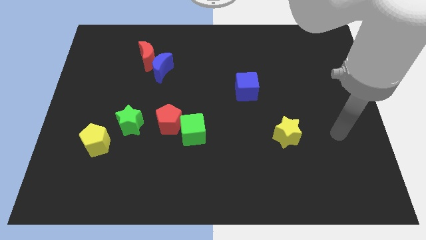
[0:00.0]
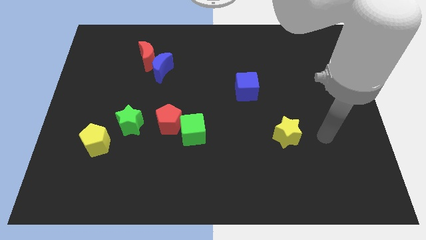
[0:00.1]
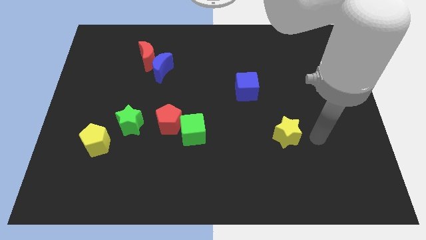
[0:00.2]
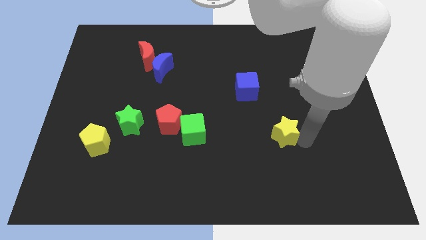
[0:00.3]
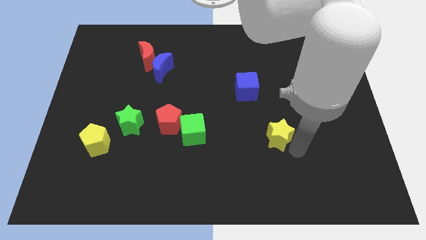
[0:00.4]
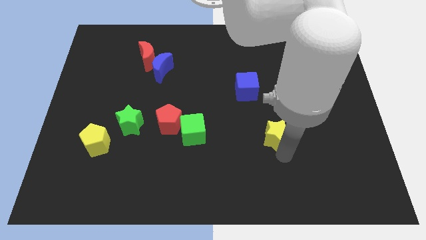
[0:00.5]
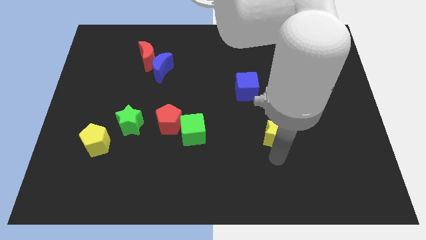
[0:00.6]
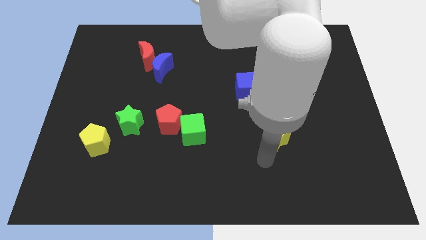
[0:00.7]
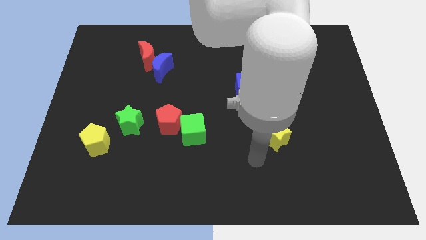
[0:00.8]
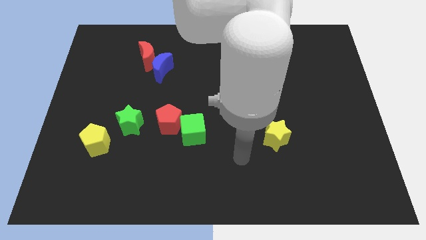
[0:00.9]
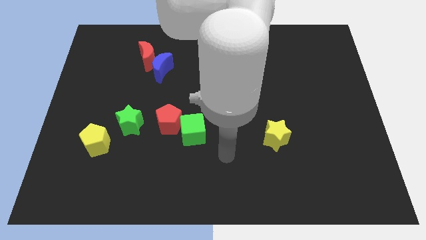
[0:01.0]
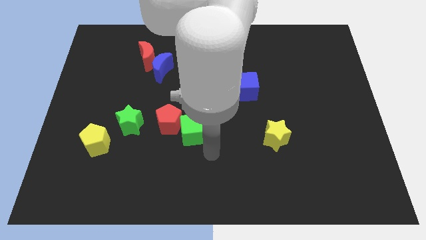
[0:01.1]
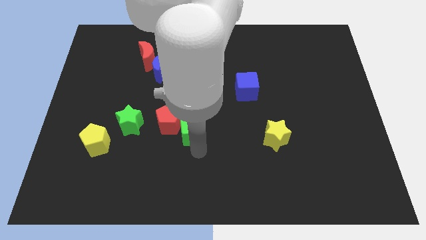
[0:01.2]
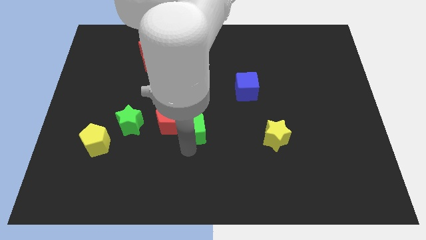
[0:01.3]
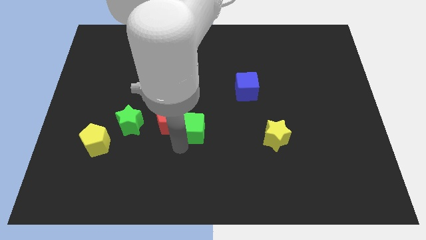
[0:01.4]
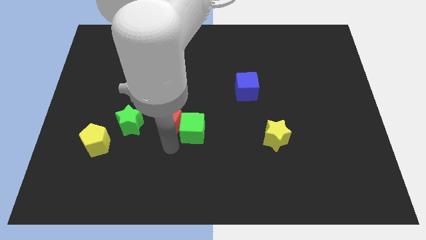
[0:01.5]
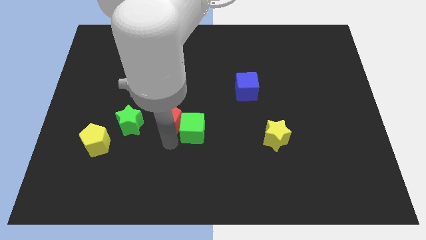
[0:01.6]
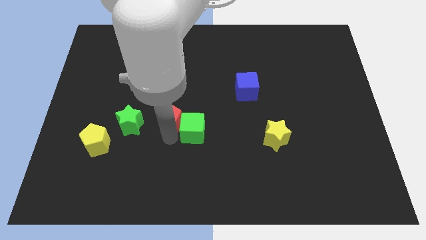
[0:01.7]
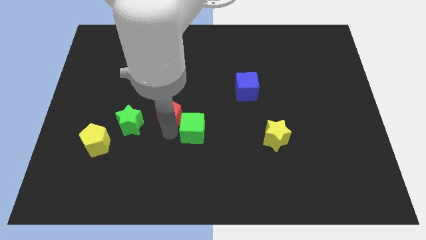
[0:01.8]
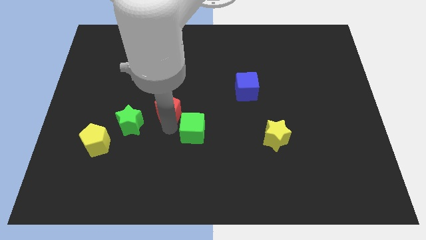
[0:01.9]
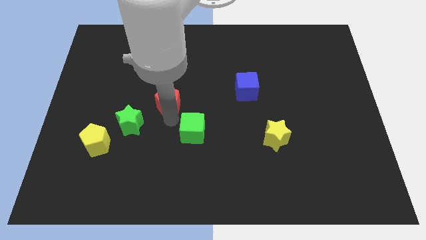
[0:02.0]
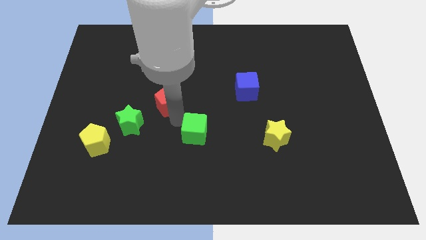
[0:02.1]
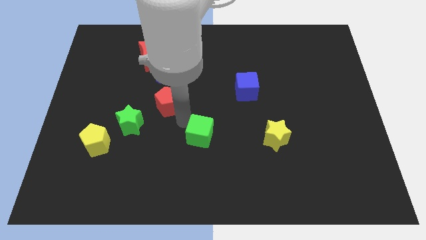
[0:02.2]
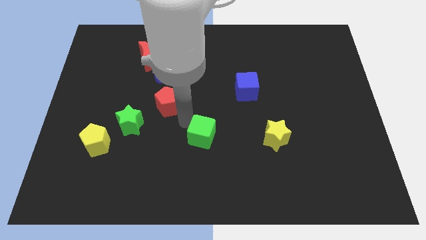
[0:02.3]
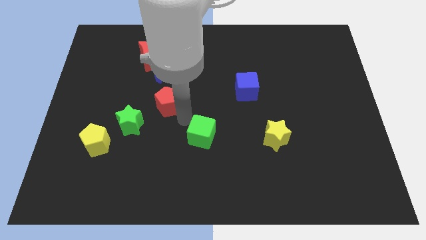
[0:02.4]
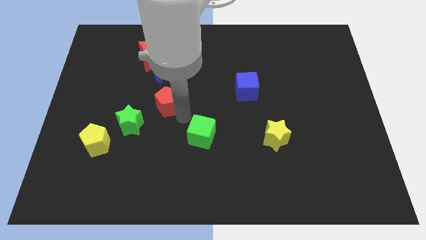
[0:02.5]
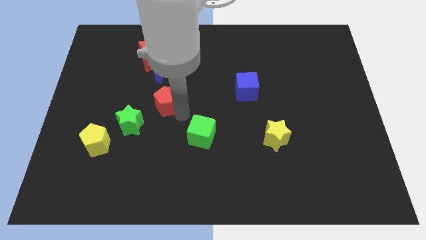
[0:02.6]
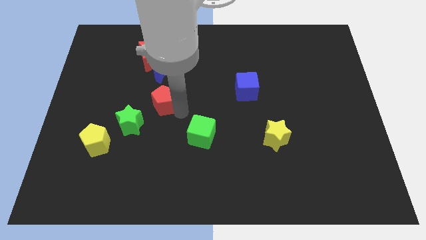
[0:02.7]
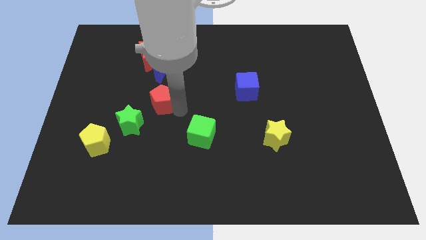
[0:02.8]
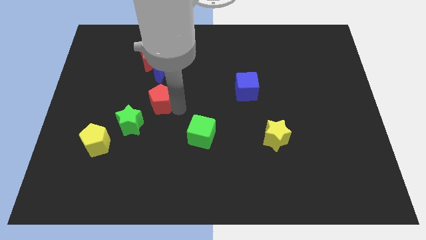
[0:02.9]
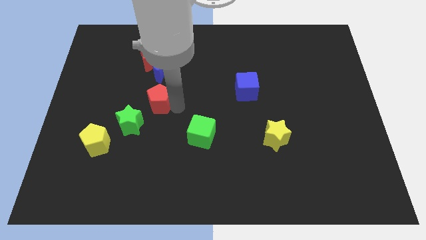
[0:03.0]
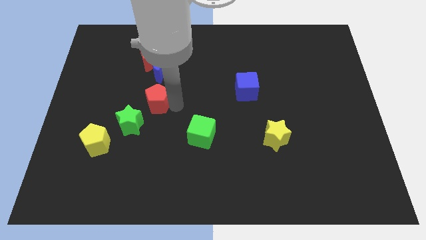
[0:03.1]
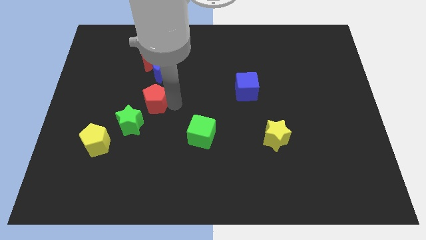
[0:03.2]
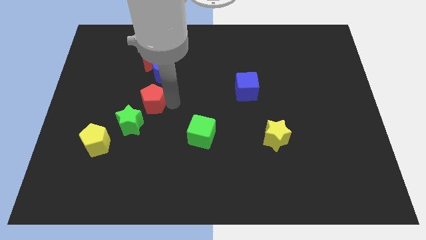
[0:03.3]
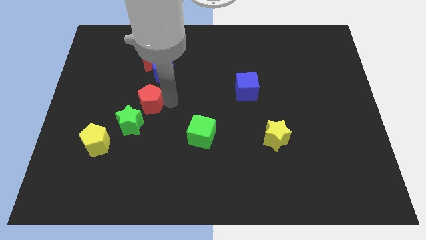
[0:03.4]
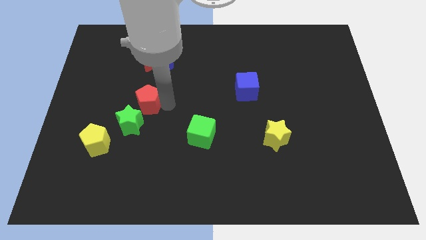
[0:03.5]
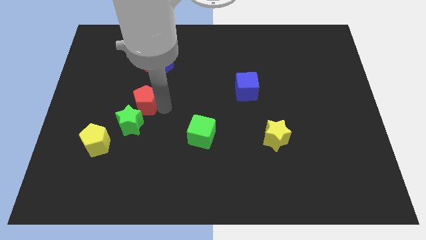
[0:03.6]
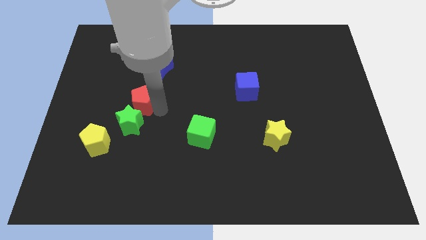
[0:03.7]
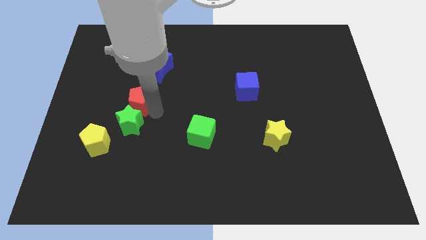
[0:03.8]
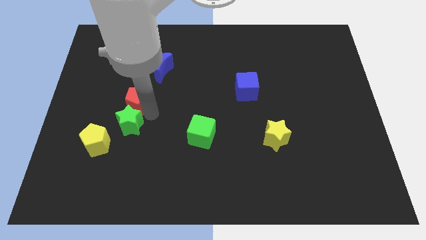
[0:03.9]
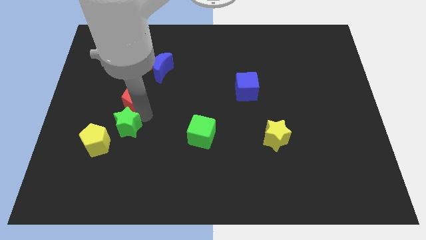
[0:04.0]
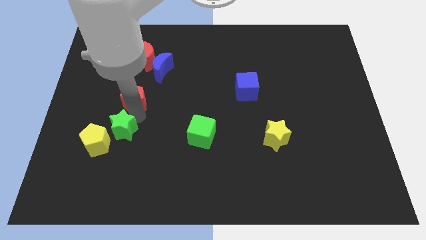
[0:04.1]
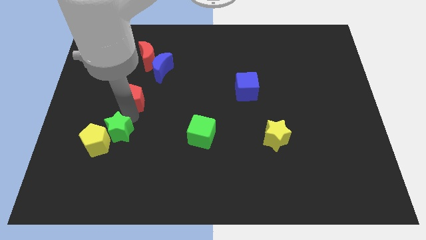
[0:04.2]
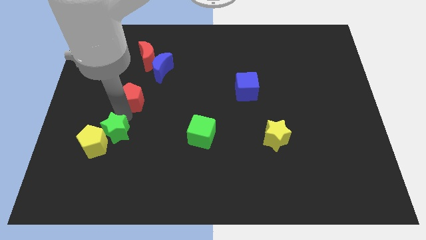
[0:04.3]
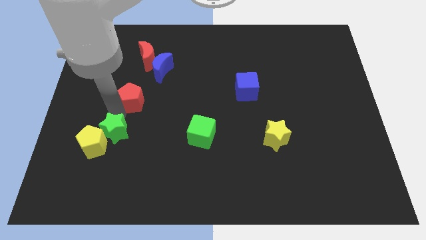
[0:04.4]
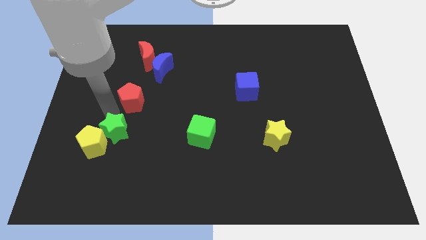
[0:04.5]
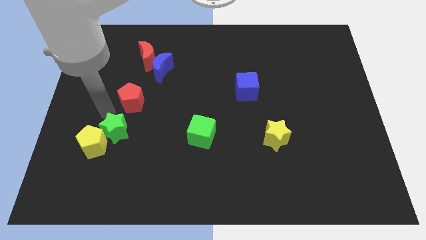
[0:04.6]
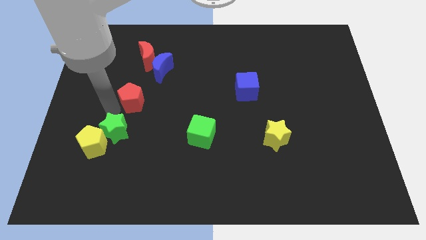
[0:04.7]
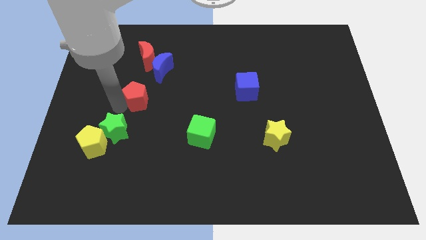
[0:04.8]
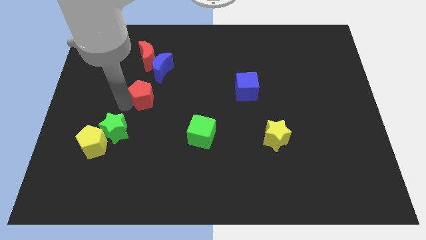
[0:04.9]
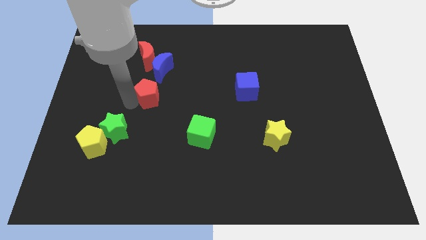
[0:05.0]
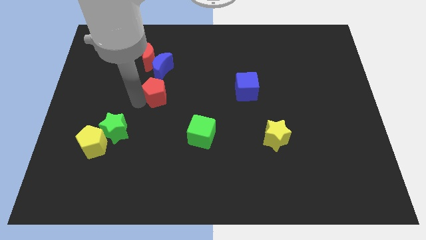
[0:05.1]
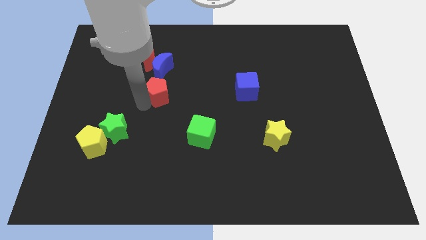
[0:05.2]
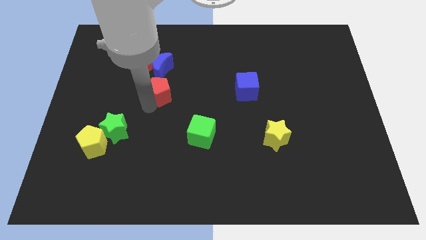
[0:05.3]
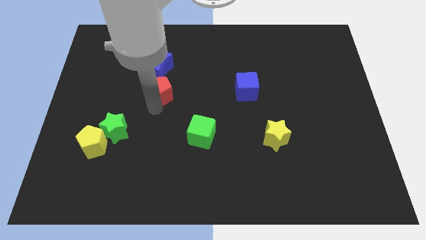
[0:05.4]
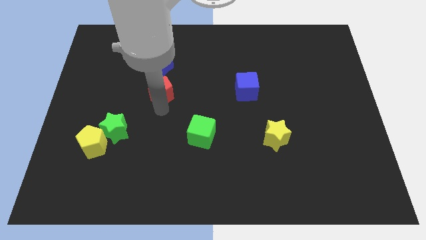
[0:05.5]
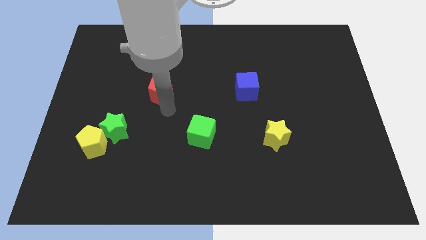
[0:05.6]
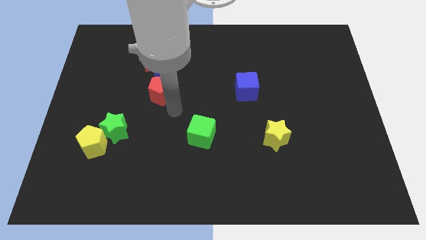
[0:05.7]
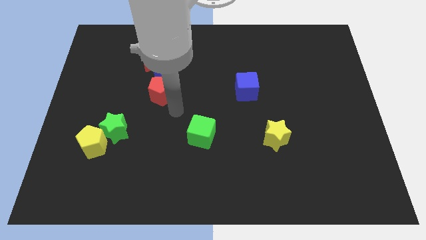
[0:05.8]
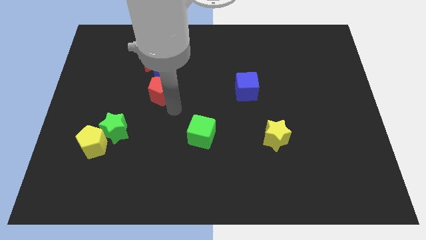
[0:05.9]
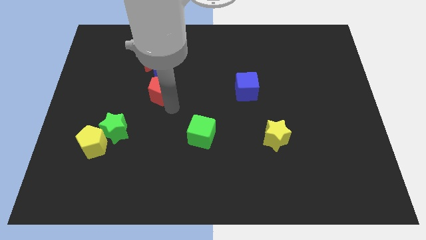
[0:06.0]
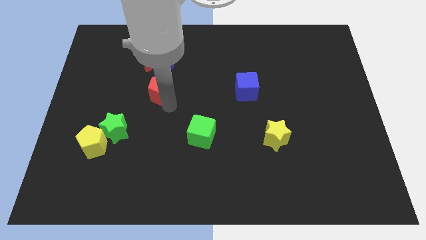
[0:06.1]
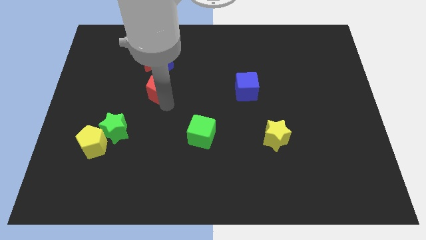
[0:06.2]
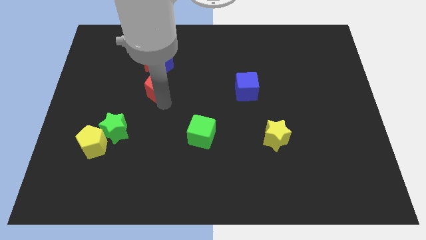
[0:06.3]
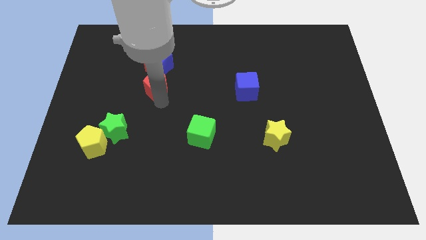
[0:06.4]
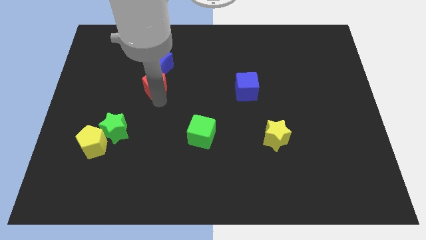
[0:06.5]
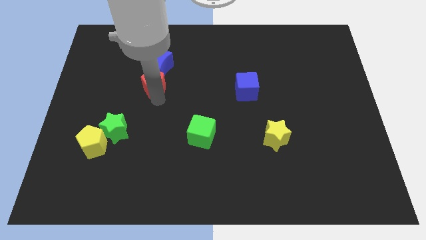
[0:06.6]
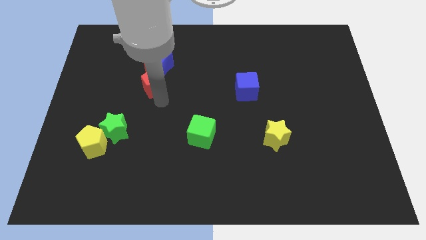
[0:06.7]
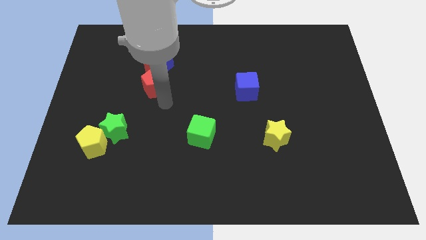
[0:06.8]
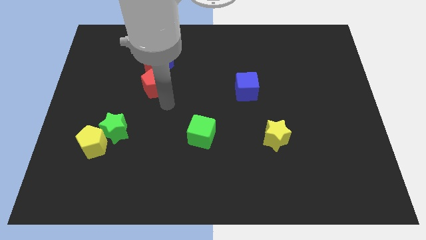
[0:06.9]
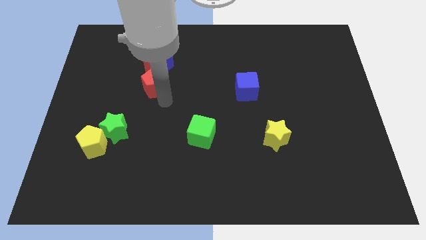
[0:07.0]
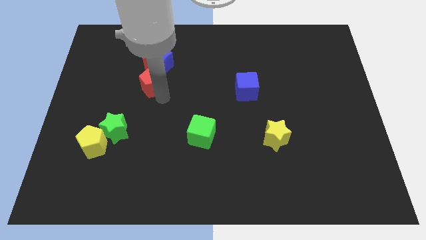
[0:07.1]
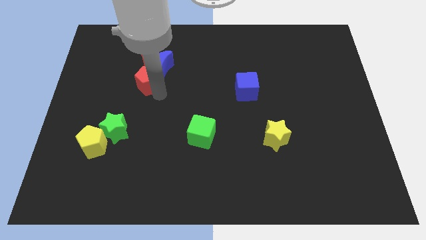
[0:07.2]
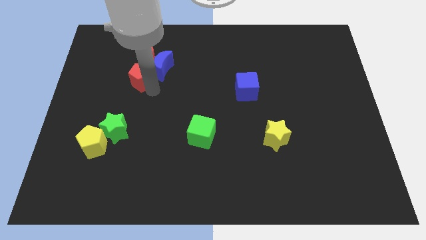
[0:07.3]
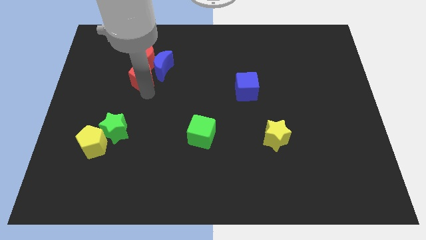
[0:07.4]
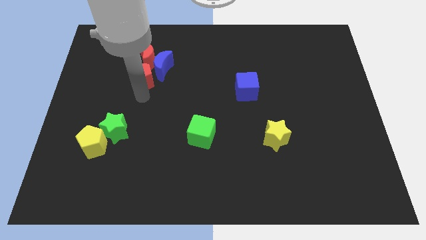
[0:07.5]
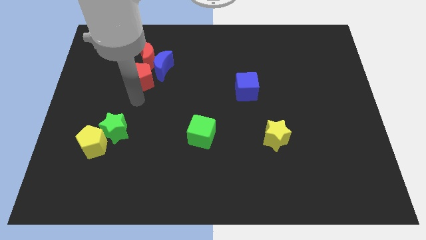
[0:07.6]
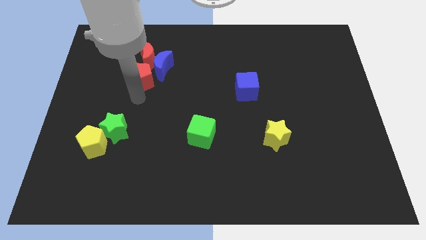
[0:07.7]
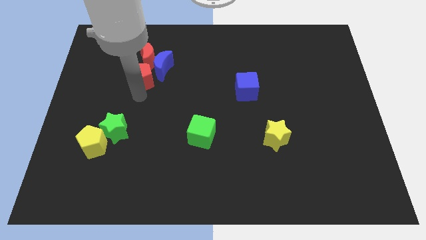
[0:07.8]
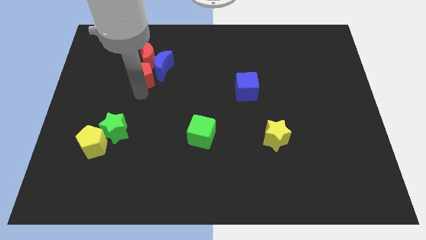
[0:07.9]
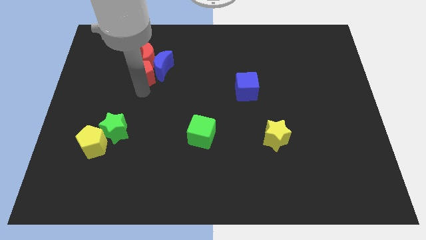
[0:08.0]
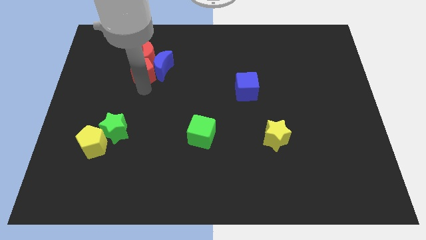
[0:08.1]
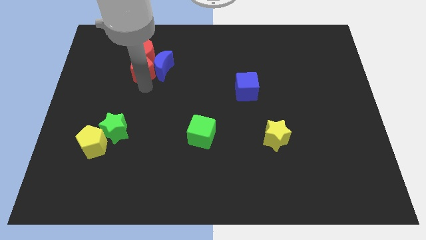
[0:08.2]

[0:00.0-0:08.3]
put the red pentagon to the red moon
